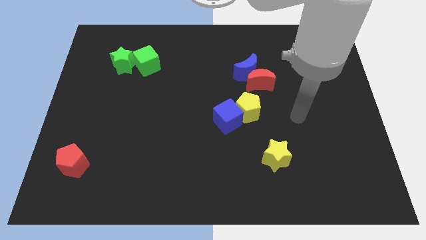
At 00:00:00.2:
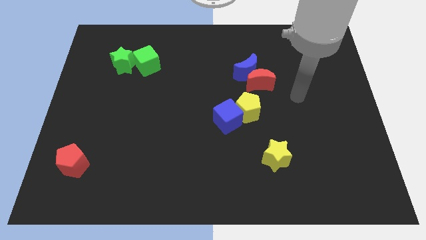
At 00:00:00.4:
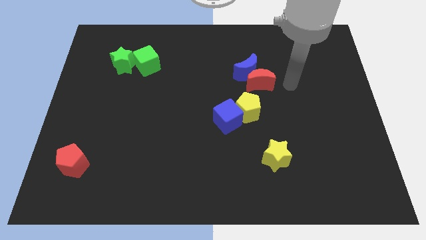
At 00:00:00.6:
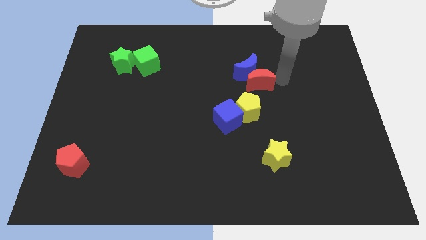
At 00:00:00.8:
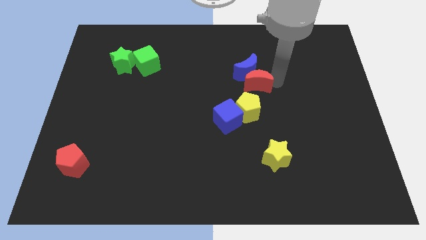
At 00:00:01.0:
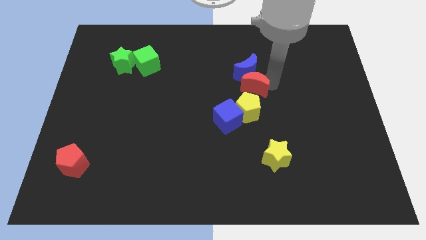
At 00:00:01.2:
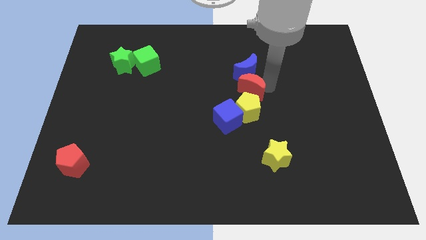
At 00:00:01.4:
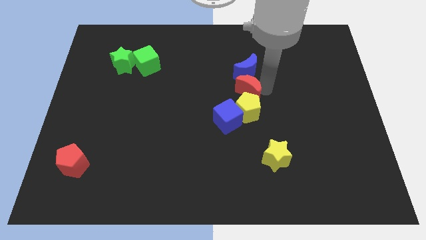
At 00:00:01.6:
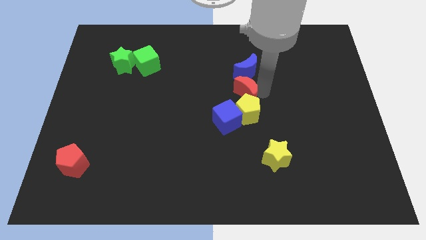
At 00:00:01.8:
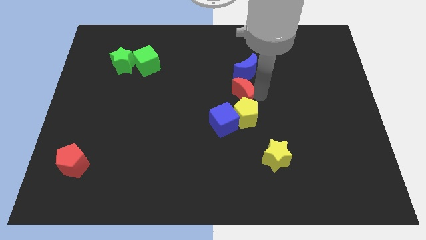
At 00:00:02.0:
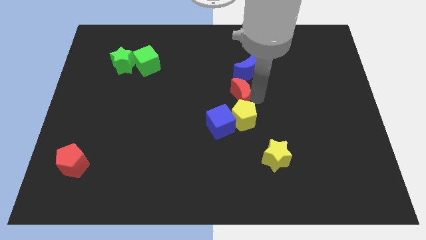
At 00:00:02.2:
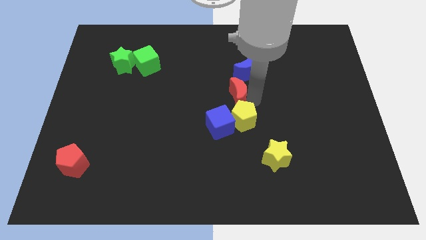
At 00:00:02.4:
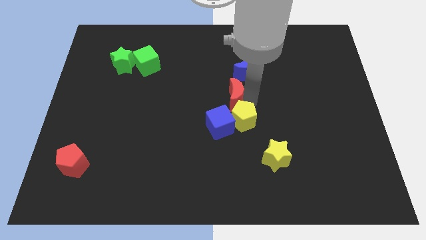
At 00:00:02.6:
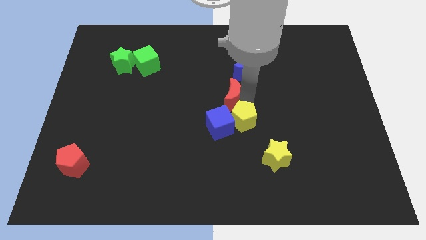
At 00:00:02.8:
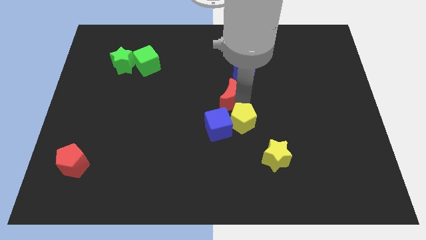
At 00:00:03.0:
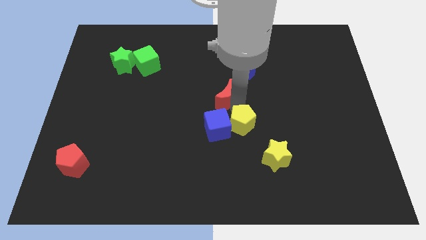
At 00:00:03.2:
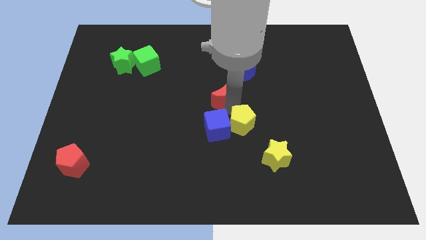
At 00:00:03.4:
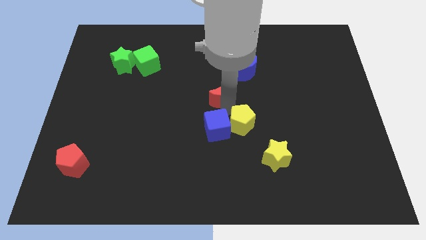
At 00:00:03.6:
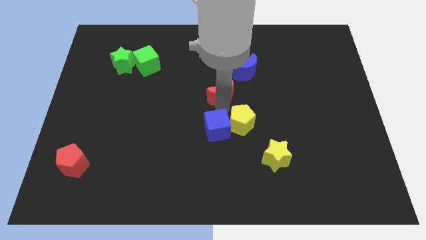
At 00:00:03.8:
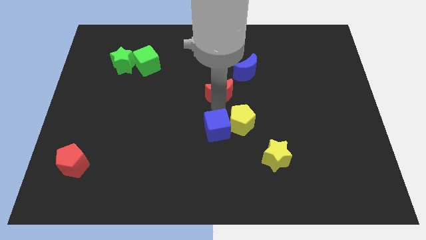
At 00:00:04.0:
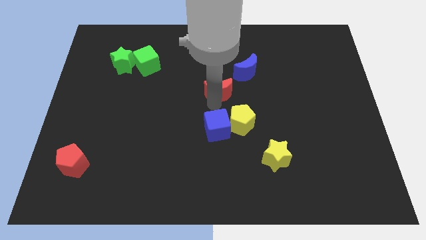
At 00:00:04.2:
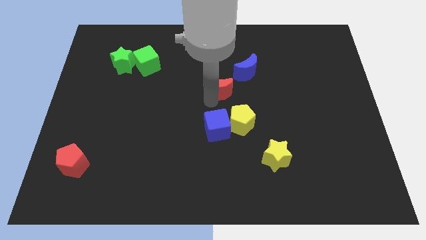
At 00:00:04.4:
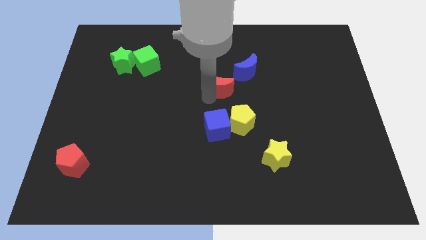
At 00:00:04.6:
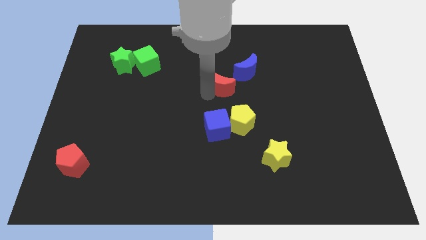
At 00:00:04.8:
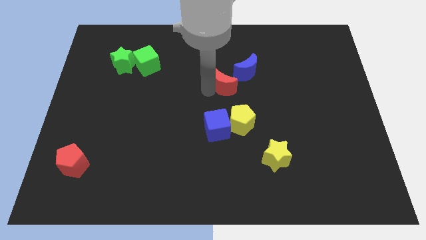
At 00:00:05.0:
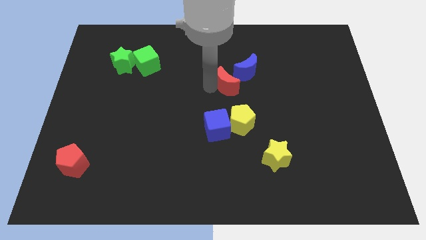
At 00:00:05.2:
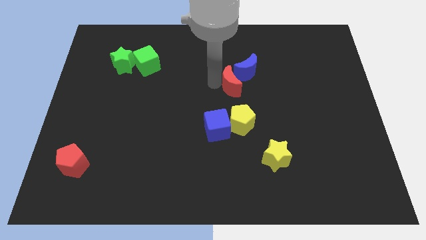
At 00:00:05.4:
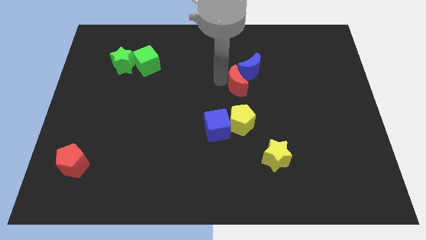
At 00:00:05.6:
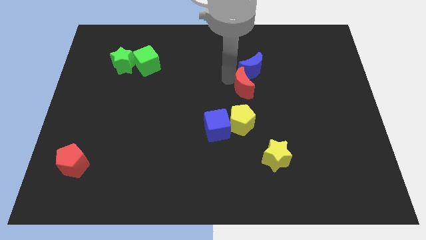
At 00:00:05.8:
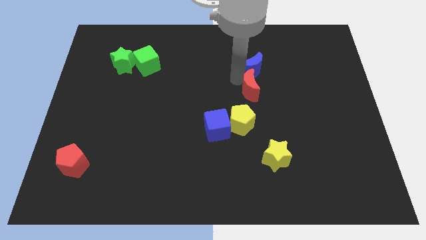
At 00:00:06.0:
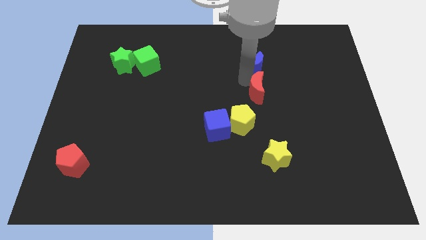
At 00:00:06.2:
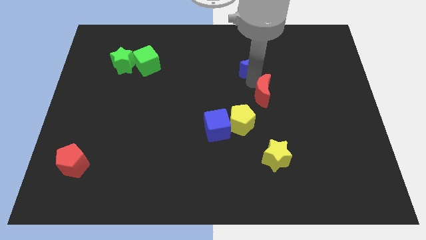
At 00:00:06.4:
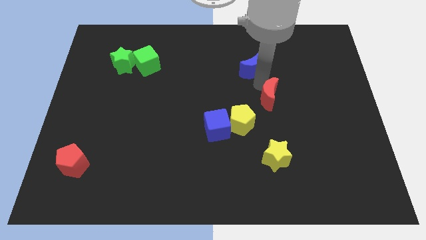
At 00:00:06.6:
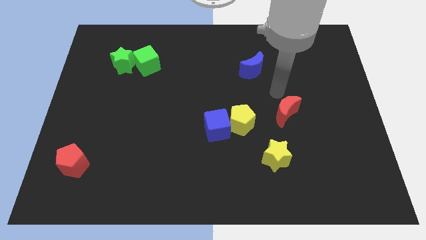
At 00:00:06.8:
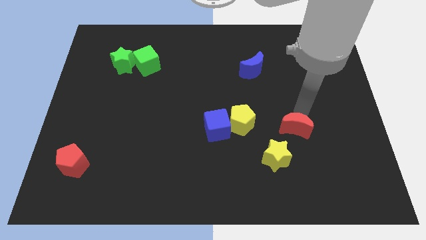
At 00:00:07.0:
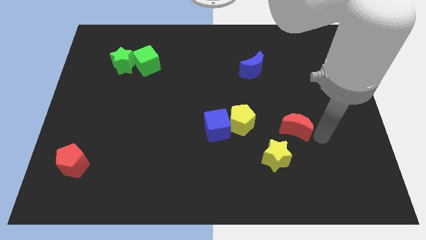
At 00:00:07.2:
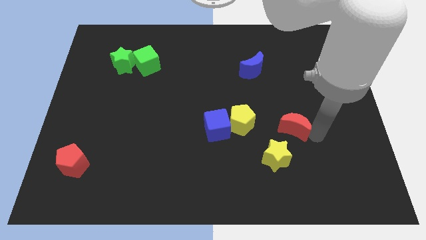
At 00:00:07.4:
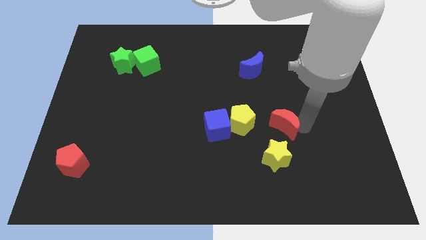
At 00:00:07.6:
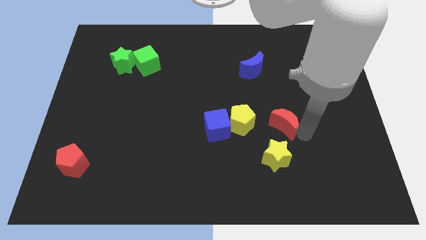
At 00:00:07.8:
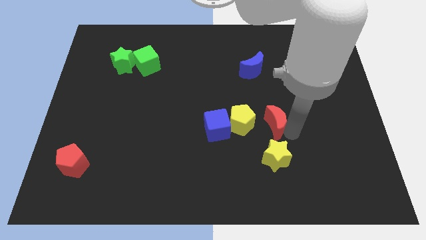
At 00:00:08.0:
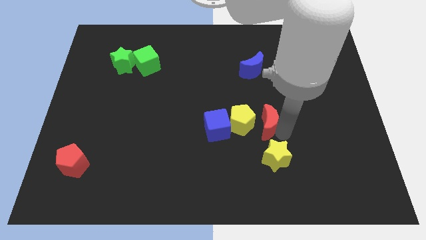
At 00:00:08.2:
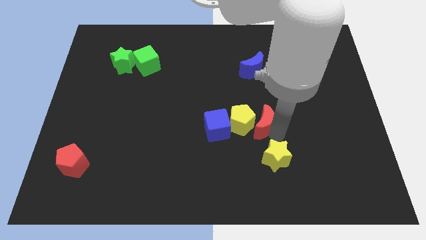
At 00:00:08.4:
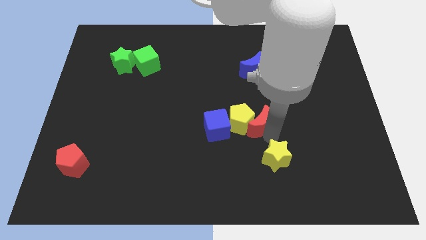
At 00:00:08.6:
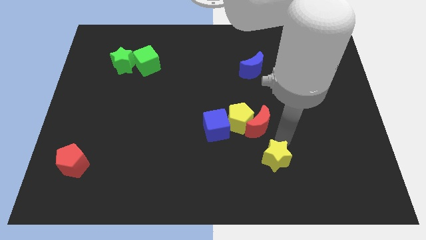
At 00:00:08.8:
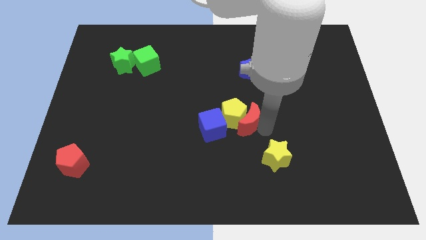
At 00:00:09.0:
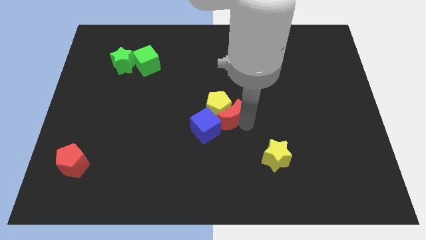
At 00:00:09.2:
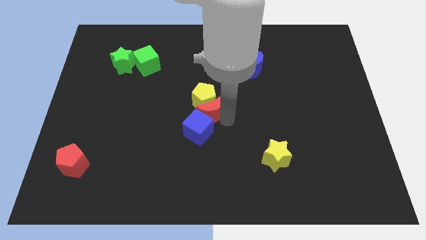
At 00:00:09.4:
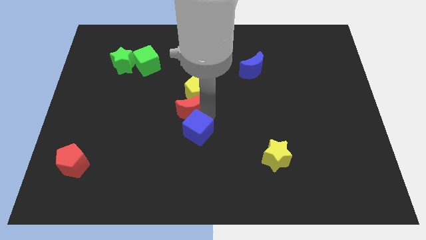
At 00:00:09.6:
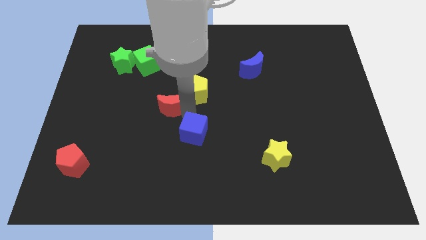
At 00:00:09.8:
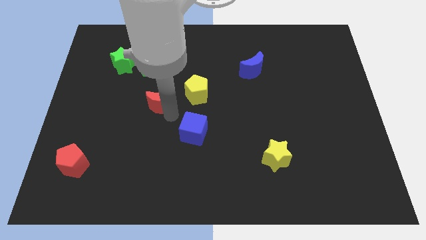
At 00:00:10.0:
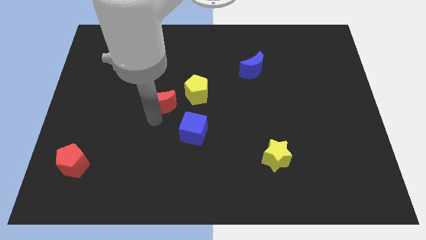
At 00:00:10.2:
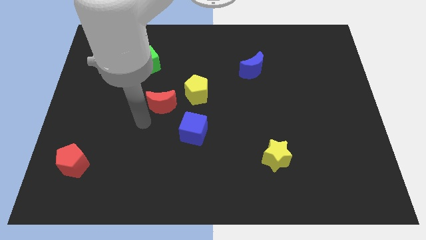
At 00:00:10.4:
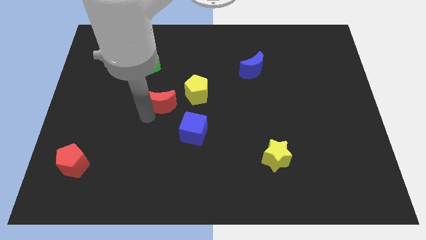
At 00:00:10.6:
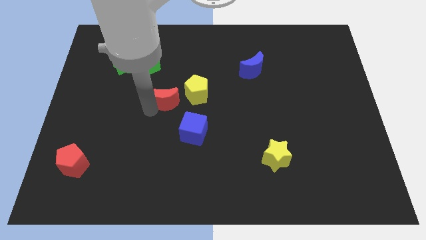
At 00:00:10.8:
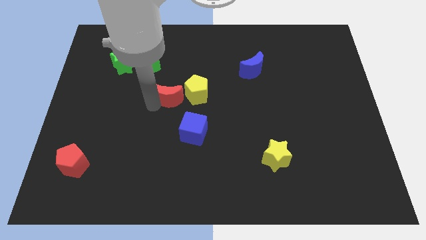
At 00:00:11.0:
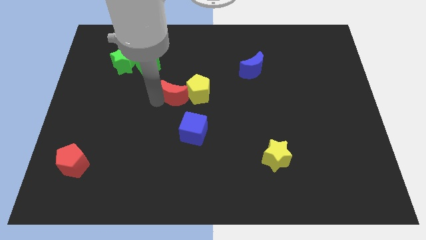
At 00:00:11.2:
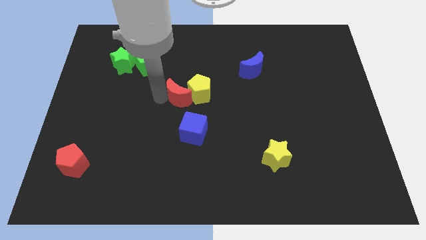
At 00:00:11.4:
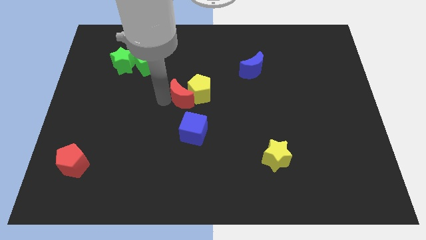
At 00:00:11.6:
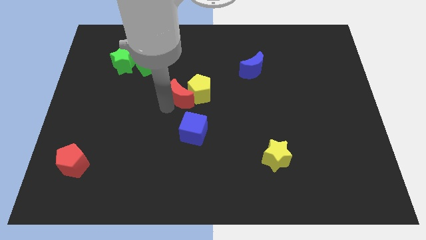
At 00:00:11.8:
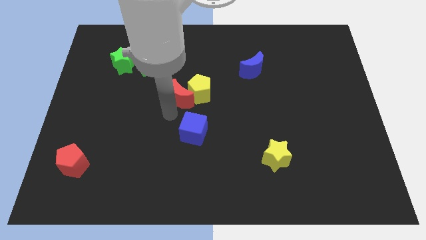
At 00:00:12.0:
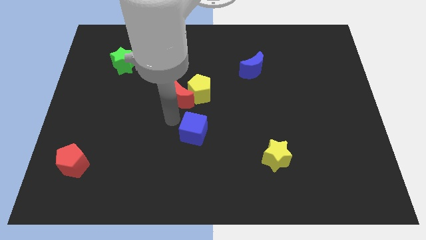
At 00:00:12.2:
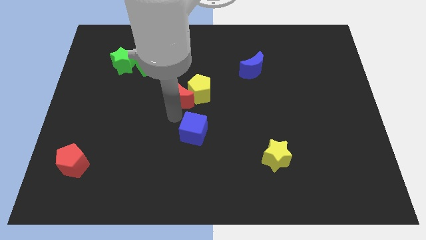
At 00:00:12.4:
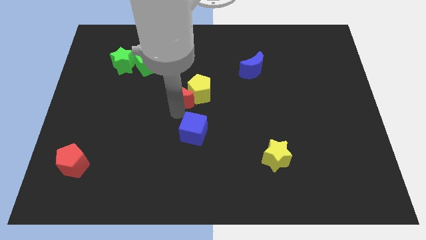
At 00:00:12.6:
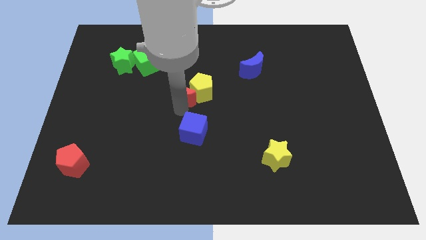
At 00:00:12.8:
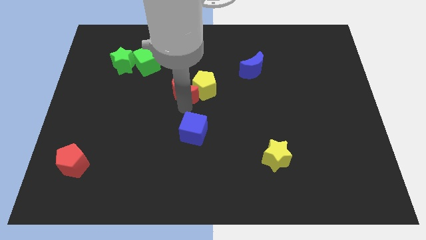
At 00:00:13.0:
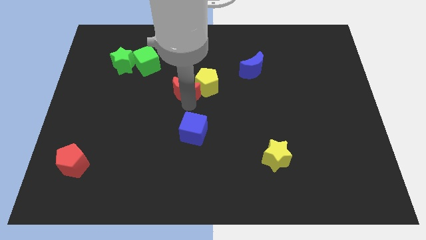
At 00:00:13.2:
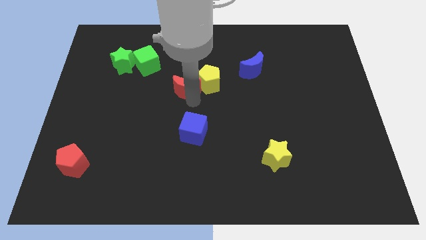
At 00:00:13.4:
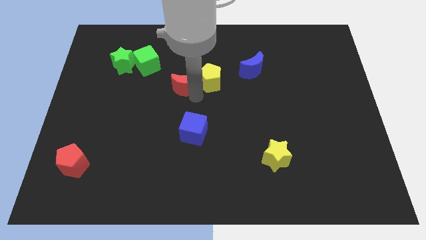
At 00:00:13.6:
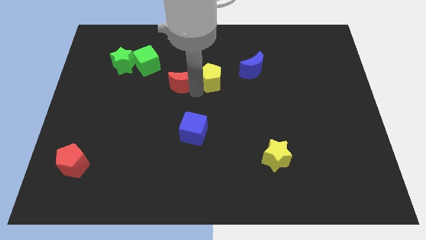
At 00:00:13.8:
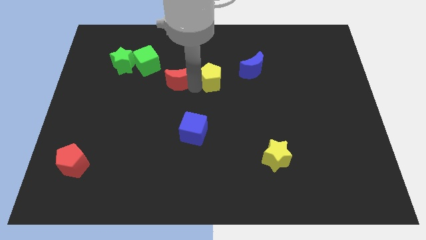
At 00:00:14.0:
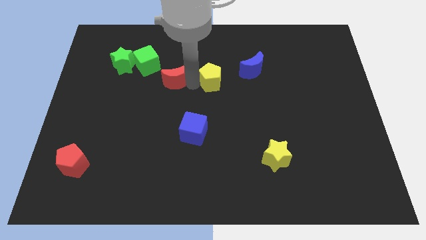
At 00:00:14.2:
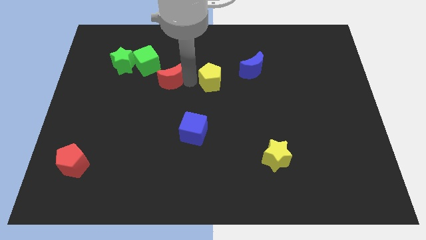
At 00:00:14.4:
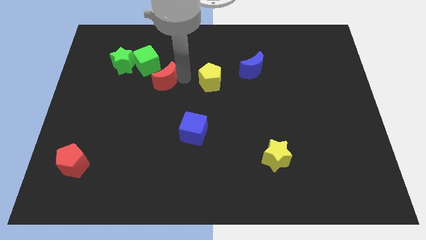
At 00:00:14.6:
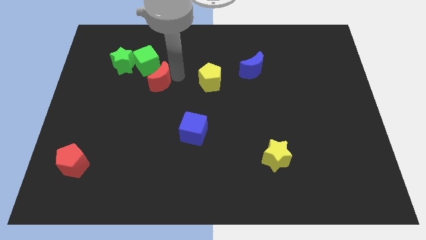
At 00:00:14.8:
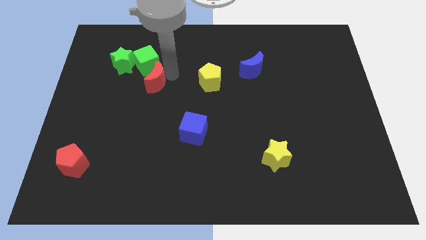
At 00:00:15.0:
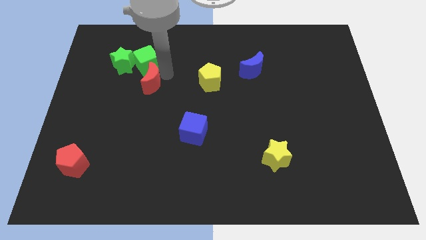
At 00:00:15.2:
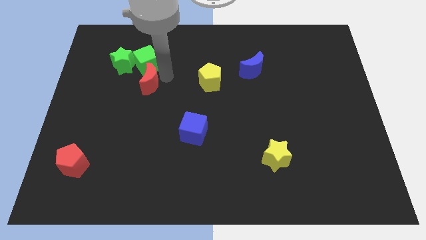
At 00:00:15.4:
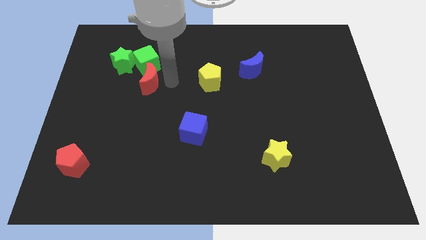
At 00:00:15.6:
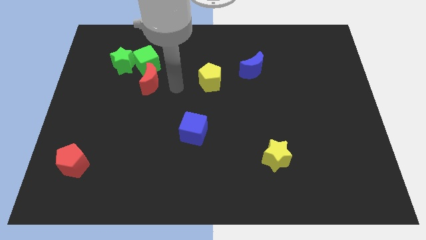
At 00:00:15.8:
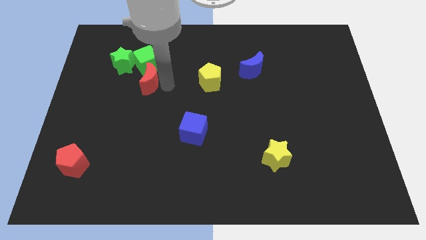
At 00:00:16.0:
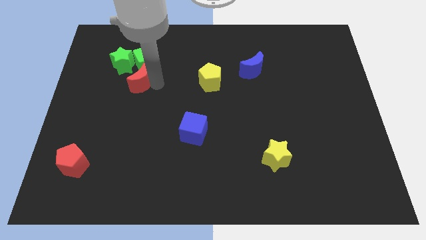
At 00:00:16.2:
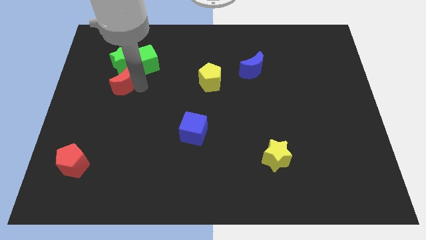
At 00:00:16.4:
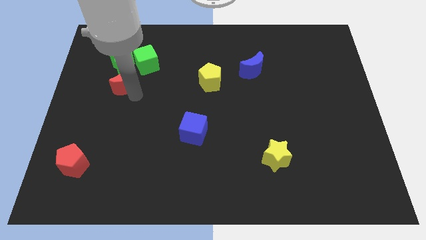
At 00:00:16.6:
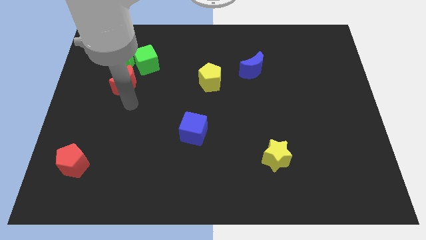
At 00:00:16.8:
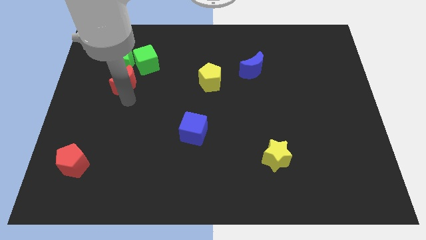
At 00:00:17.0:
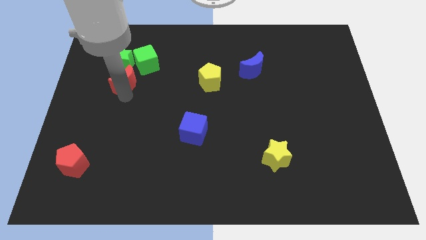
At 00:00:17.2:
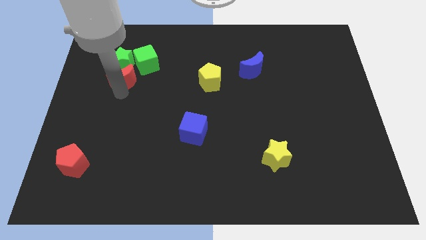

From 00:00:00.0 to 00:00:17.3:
move the red moon to the green star
